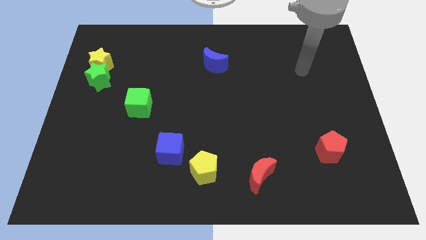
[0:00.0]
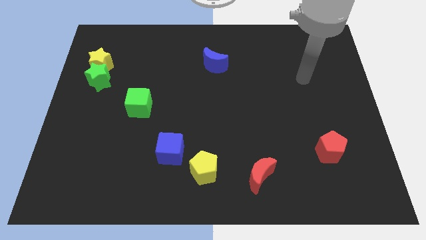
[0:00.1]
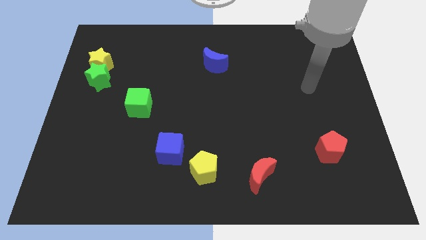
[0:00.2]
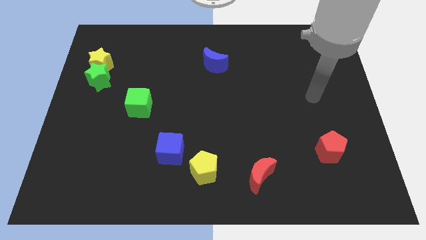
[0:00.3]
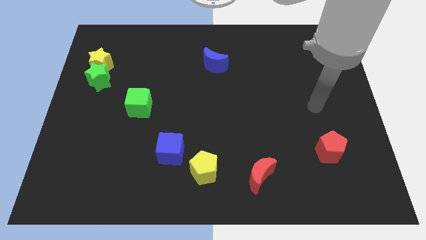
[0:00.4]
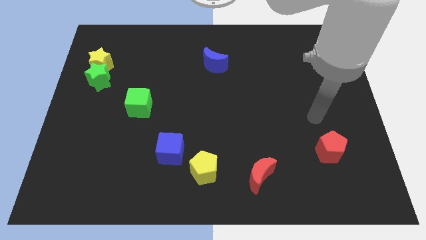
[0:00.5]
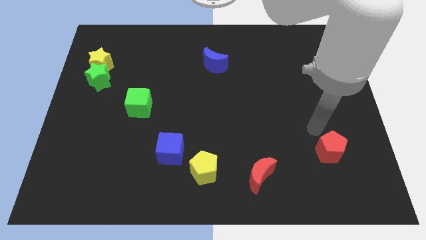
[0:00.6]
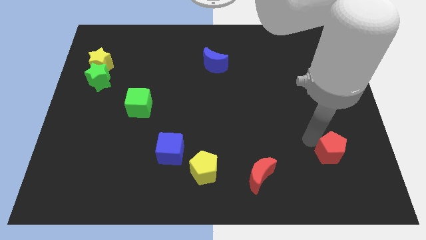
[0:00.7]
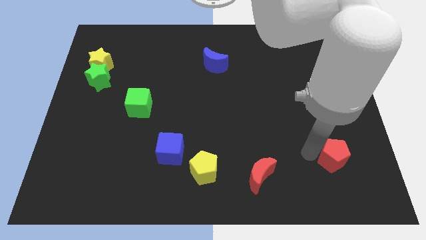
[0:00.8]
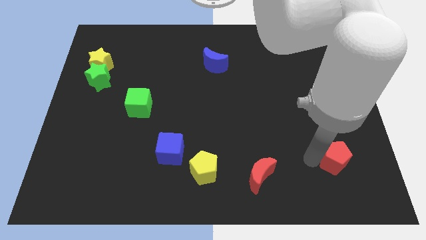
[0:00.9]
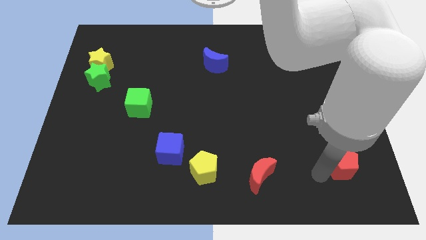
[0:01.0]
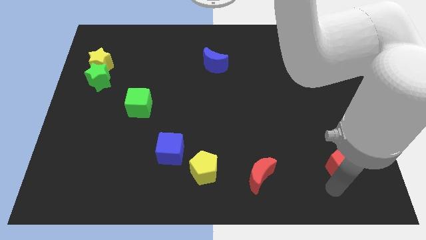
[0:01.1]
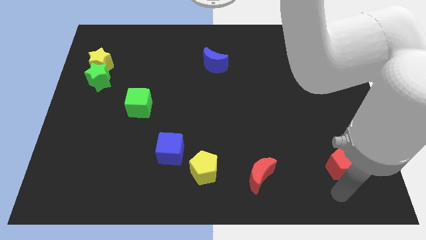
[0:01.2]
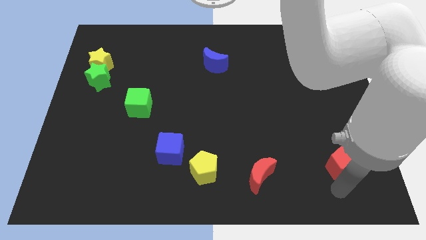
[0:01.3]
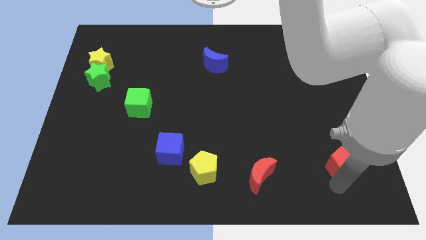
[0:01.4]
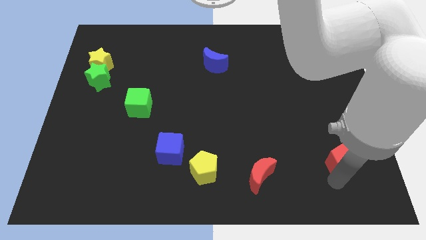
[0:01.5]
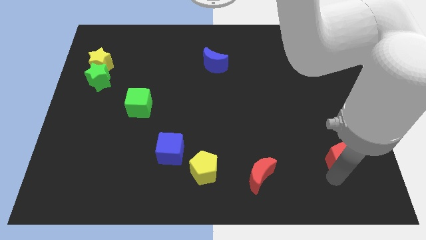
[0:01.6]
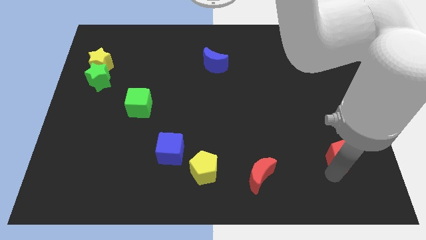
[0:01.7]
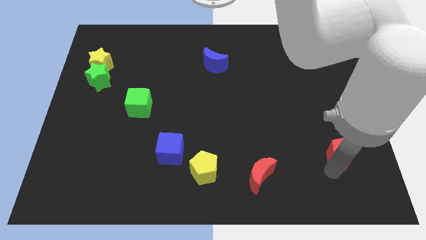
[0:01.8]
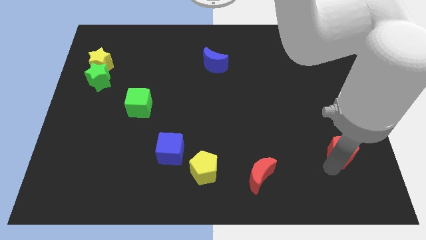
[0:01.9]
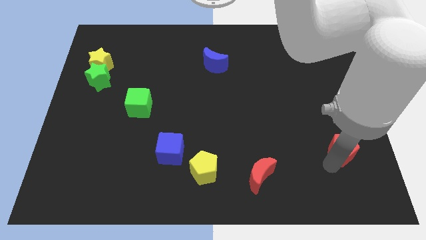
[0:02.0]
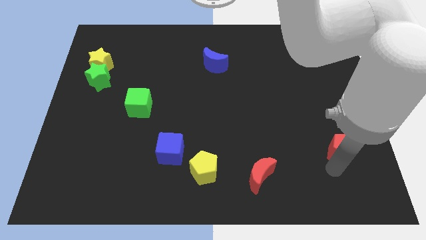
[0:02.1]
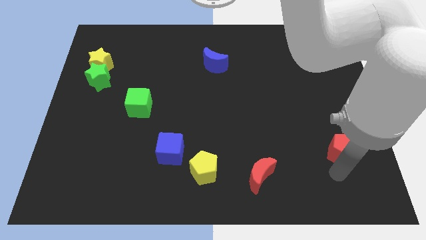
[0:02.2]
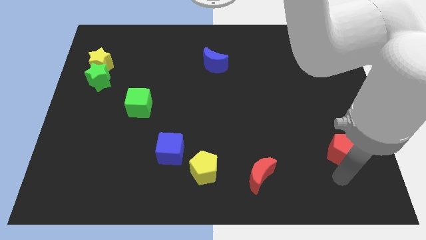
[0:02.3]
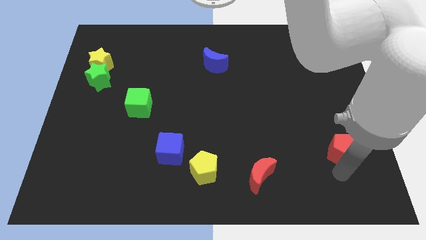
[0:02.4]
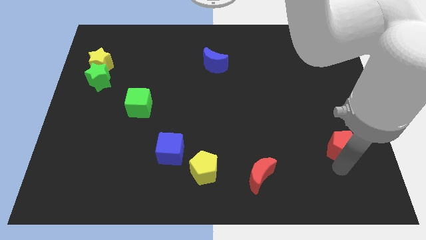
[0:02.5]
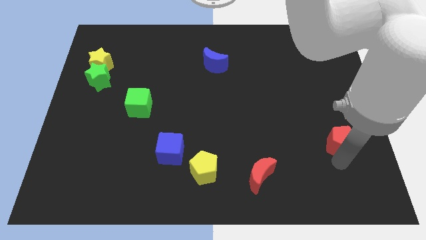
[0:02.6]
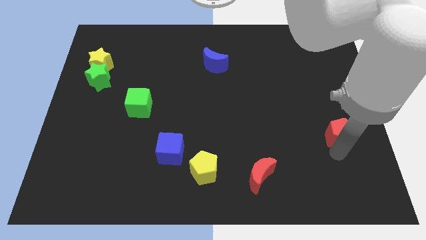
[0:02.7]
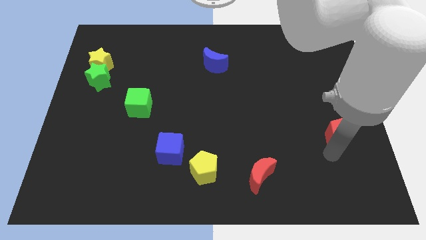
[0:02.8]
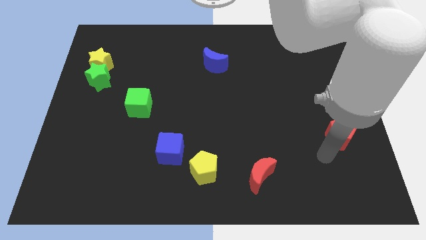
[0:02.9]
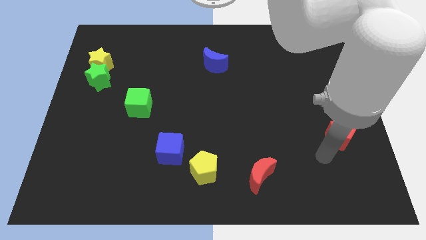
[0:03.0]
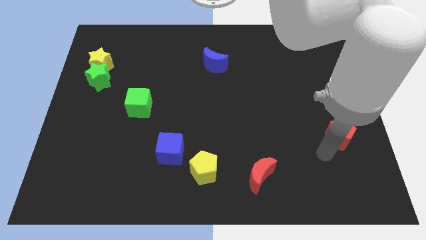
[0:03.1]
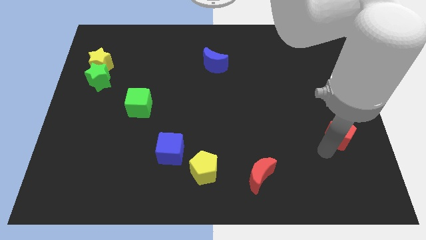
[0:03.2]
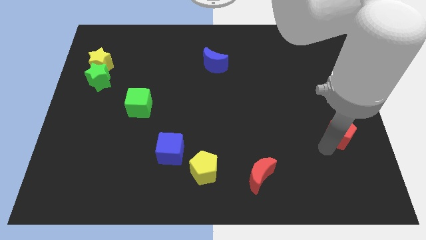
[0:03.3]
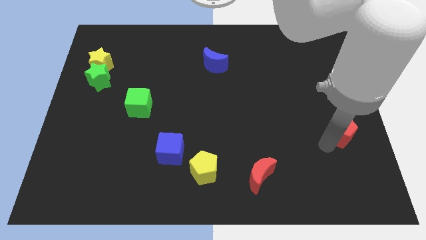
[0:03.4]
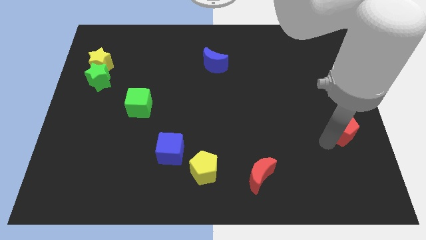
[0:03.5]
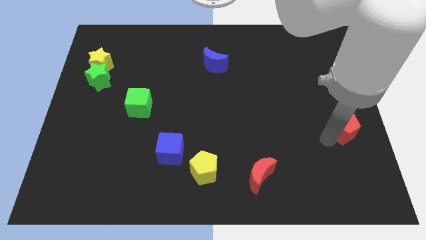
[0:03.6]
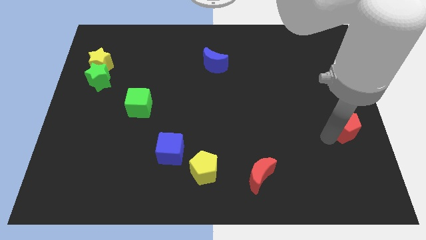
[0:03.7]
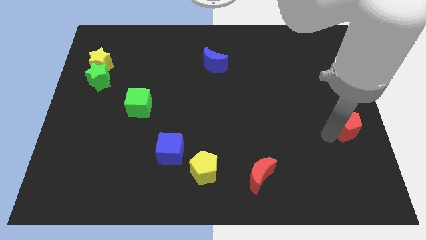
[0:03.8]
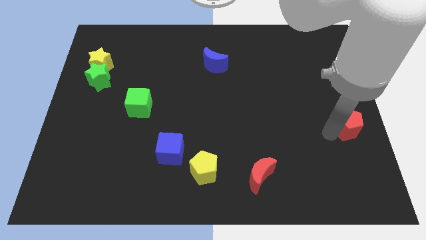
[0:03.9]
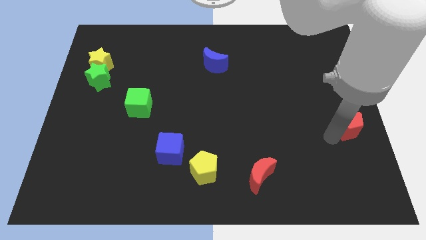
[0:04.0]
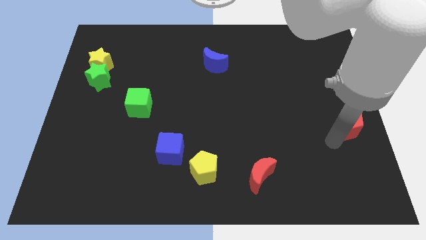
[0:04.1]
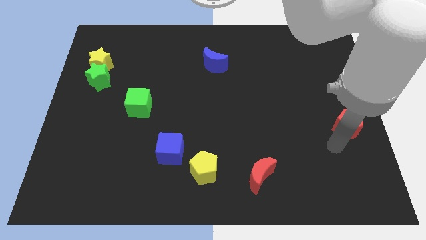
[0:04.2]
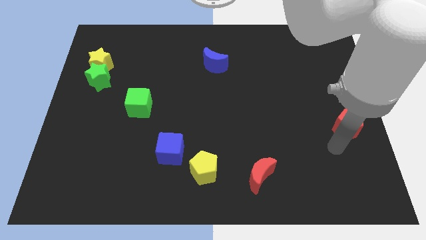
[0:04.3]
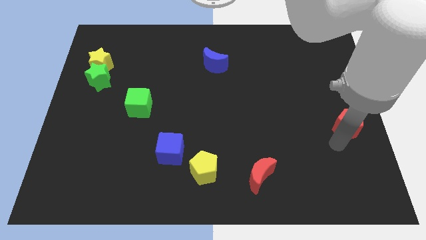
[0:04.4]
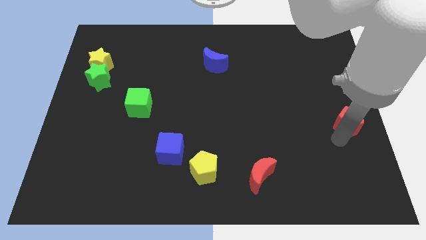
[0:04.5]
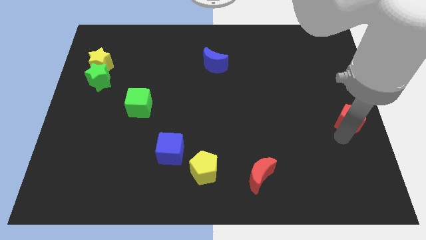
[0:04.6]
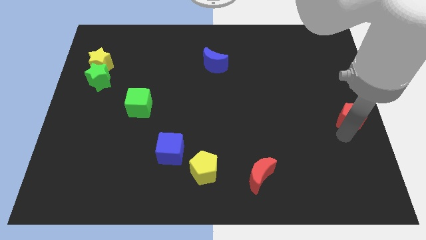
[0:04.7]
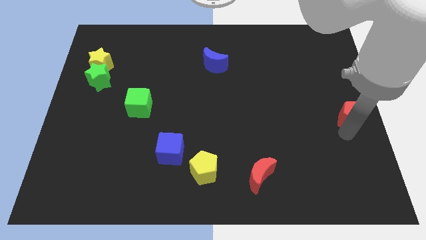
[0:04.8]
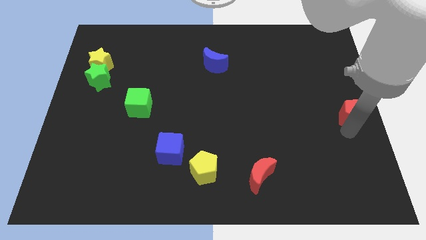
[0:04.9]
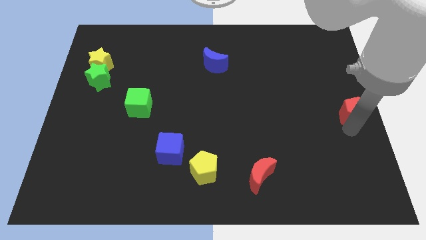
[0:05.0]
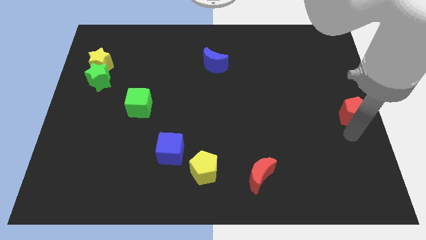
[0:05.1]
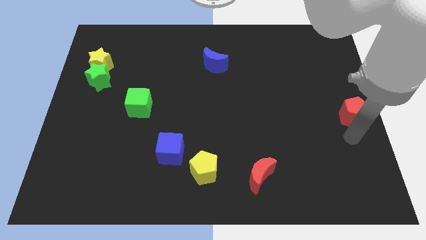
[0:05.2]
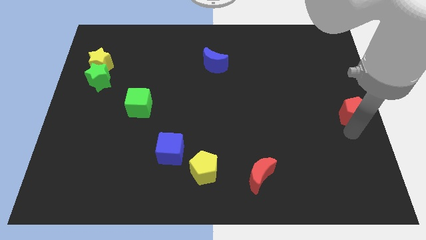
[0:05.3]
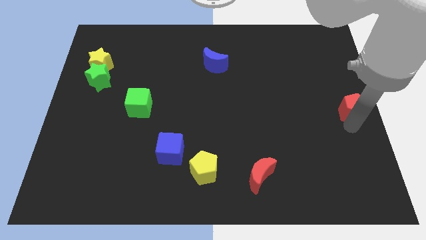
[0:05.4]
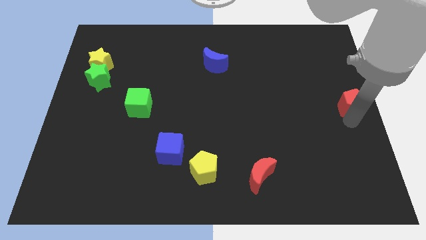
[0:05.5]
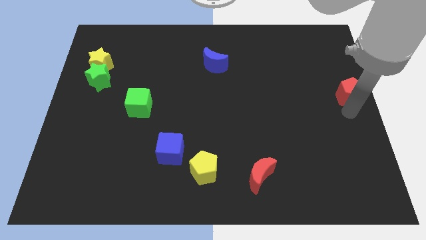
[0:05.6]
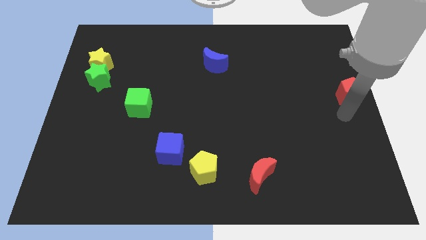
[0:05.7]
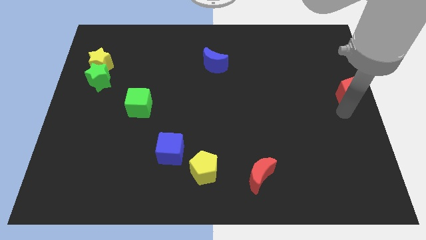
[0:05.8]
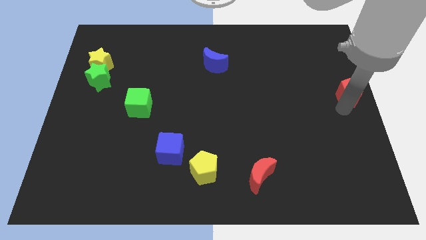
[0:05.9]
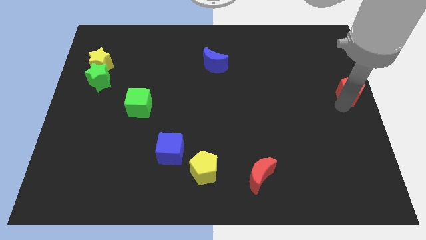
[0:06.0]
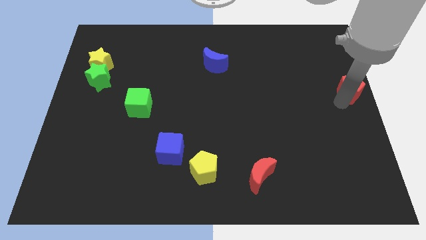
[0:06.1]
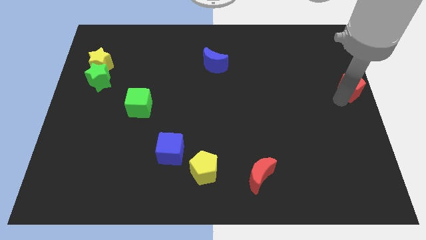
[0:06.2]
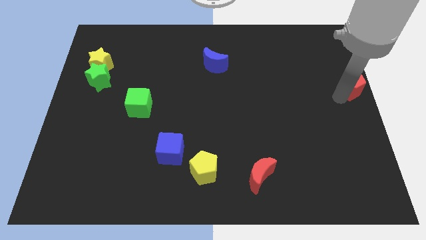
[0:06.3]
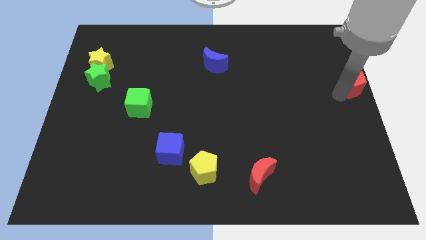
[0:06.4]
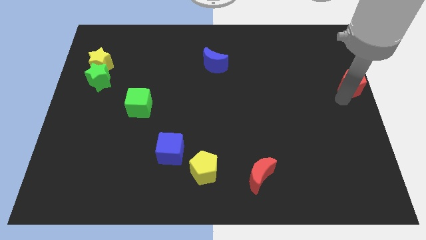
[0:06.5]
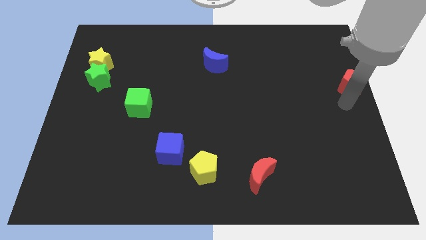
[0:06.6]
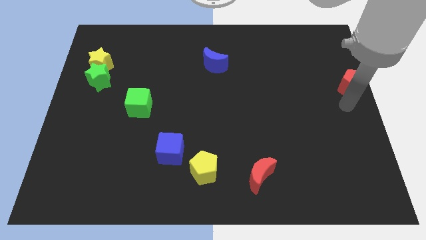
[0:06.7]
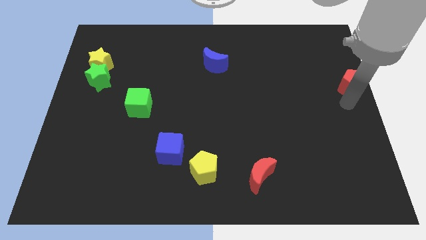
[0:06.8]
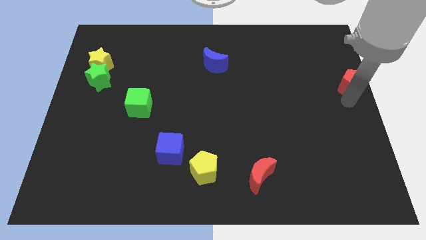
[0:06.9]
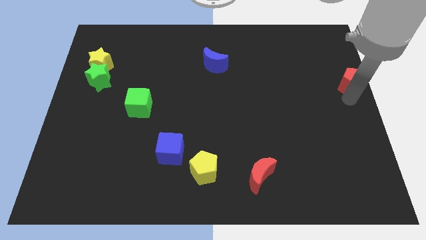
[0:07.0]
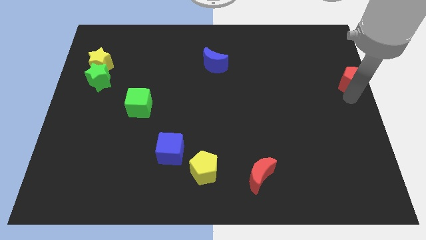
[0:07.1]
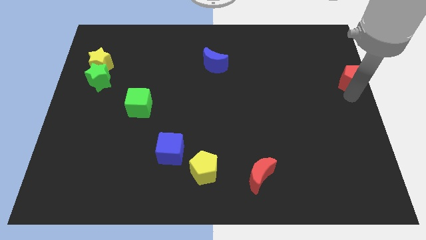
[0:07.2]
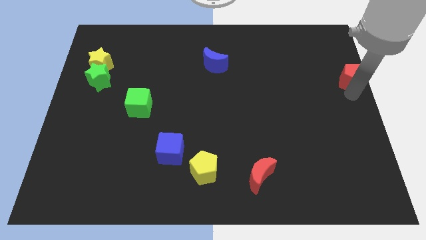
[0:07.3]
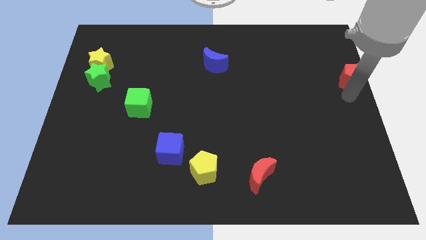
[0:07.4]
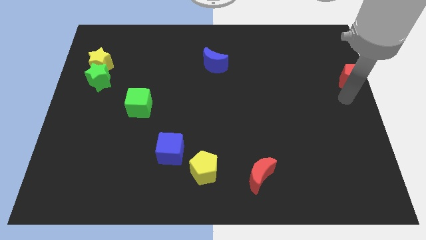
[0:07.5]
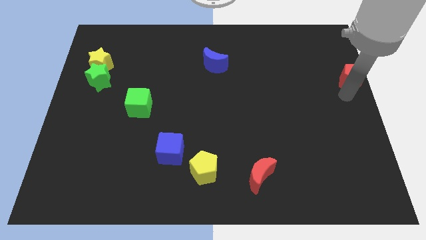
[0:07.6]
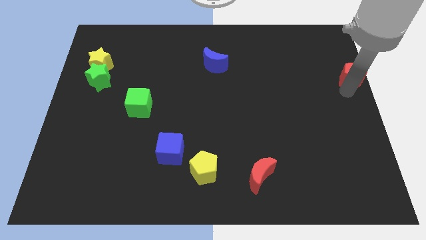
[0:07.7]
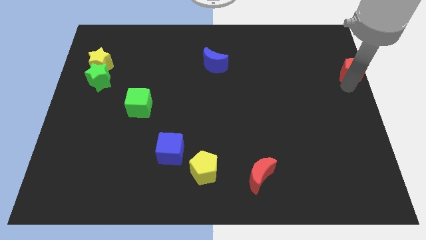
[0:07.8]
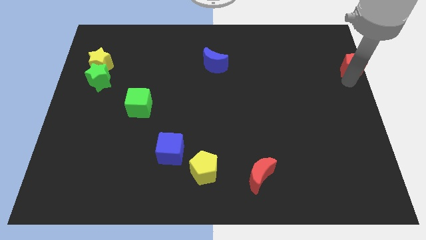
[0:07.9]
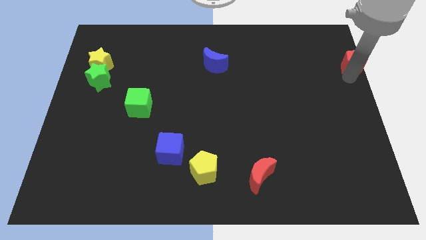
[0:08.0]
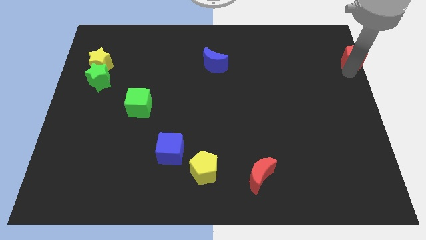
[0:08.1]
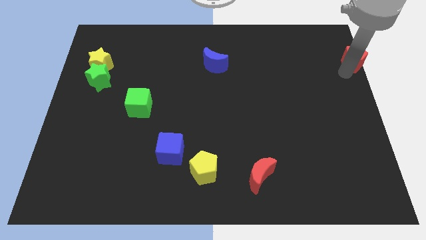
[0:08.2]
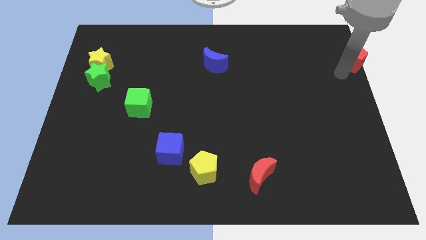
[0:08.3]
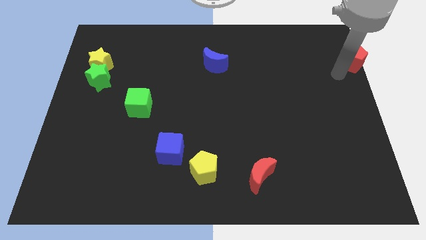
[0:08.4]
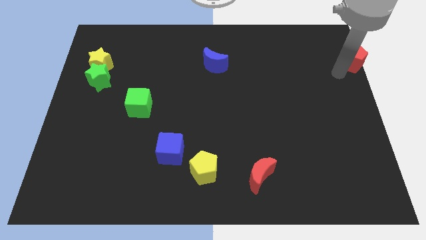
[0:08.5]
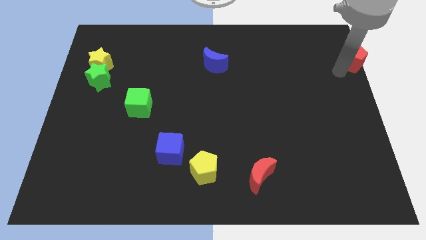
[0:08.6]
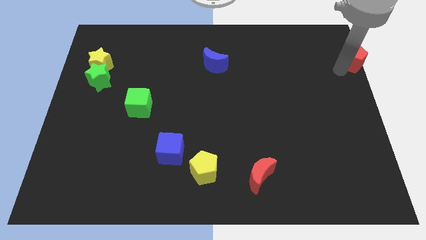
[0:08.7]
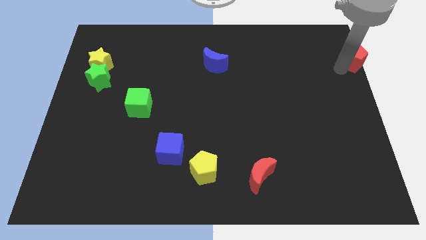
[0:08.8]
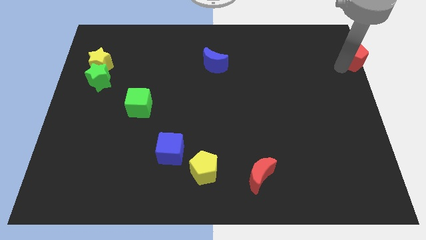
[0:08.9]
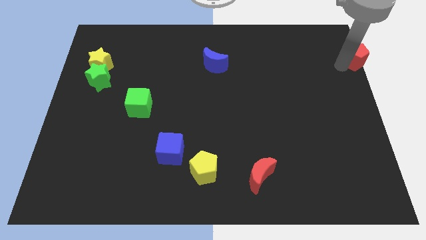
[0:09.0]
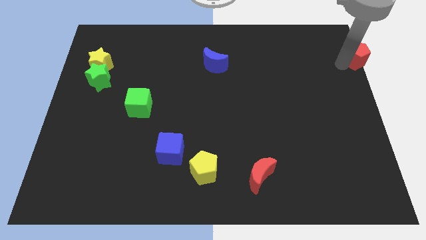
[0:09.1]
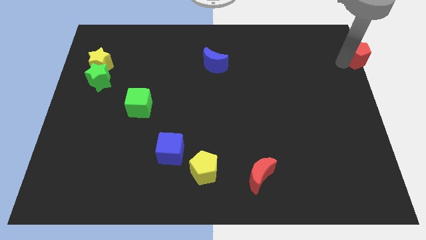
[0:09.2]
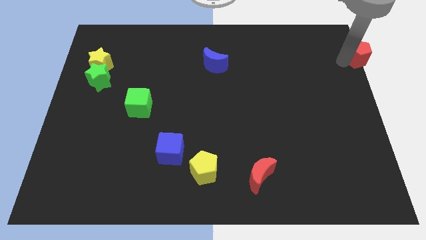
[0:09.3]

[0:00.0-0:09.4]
slide the red pentagon to the top right corner
